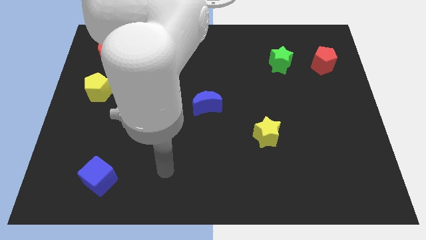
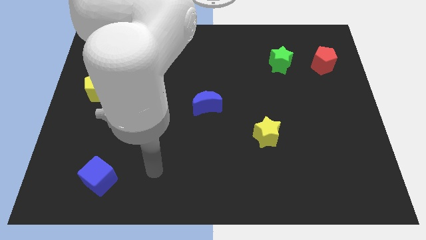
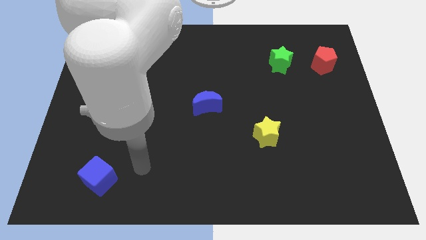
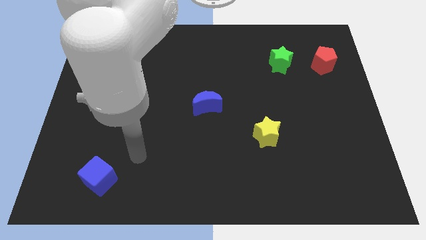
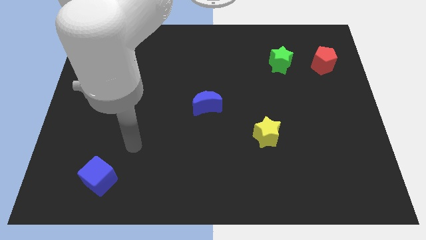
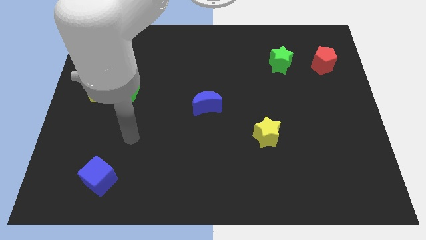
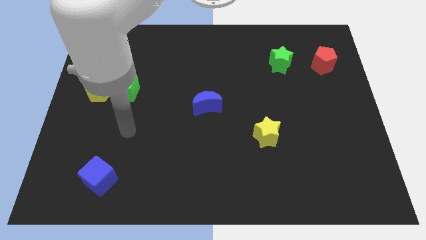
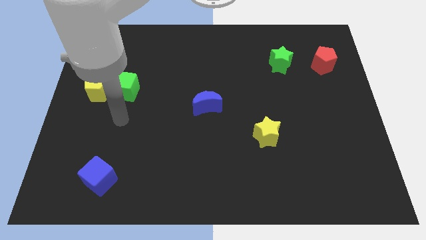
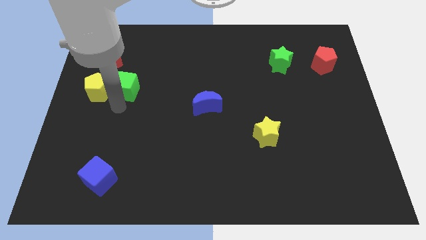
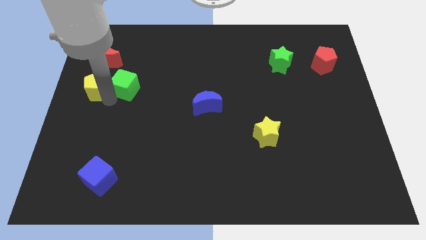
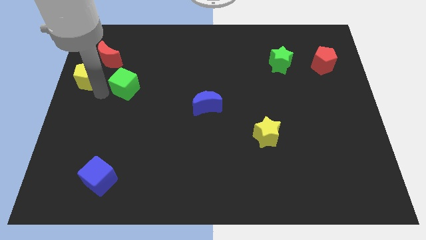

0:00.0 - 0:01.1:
pull the green cube apart from the yellow pentagon

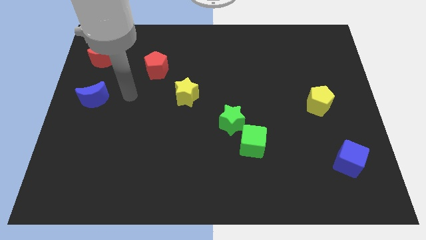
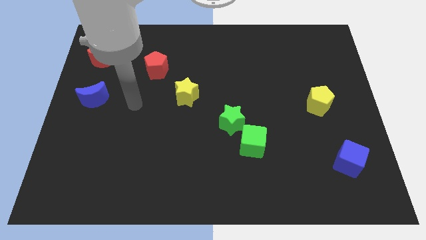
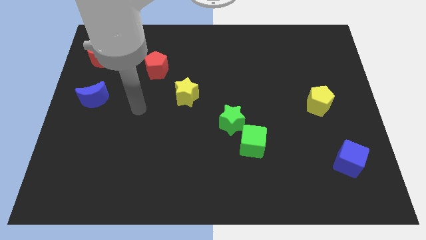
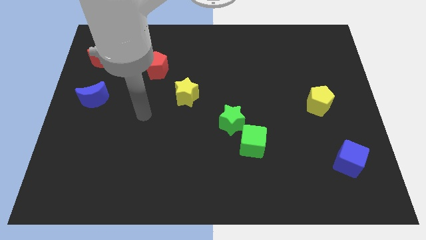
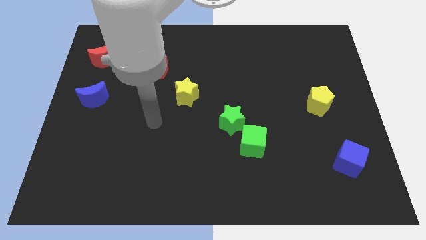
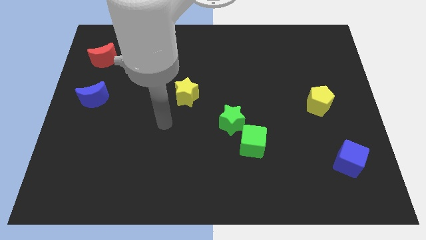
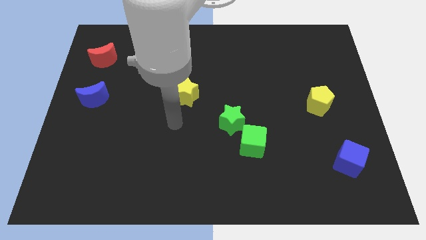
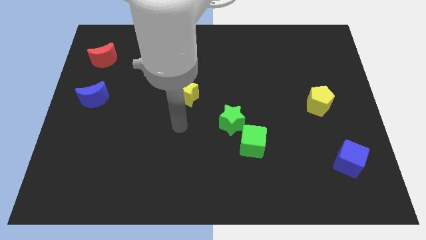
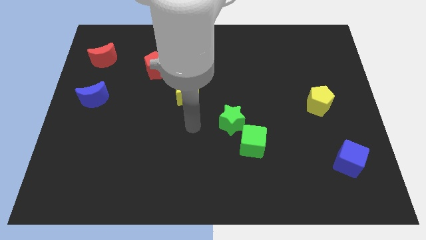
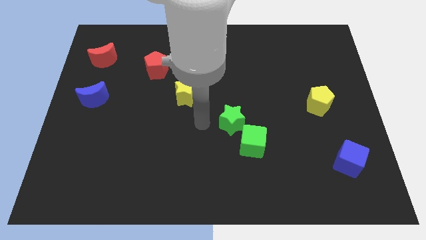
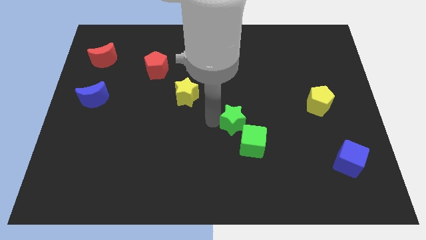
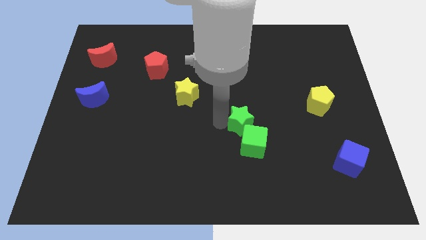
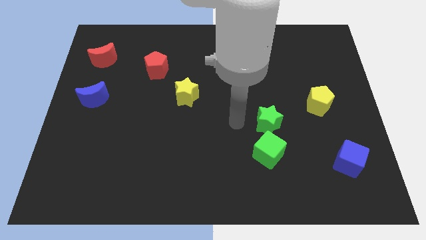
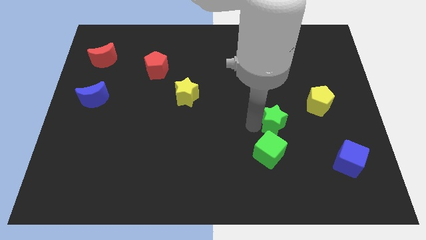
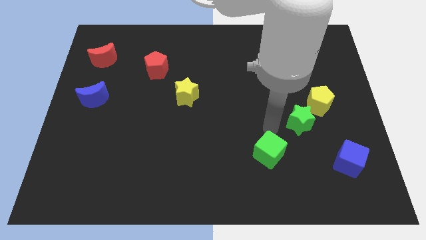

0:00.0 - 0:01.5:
move the green cube away from the green star

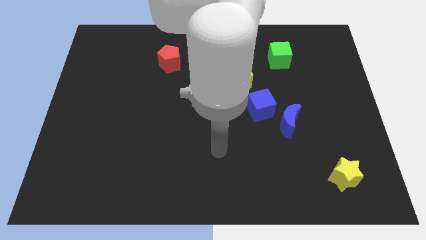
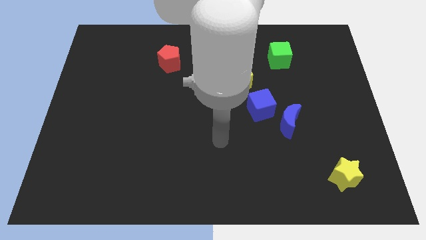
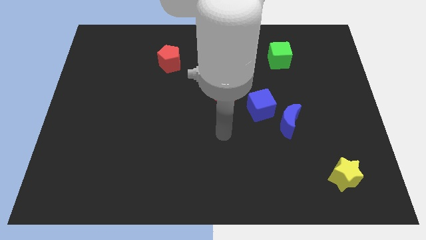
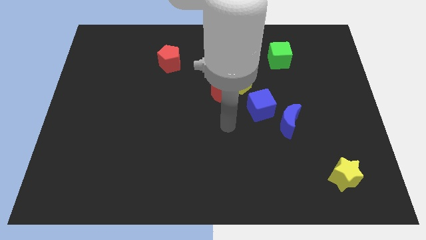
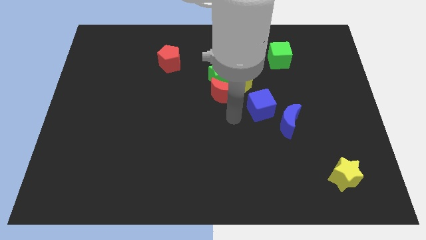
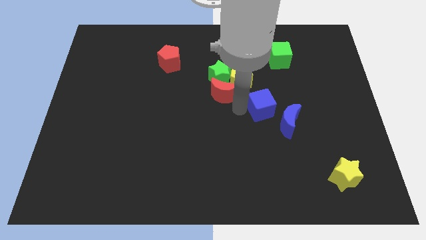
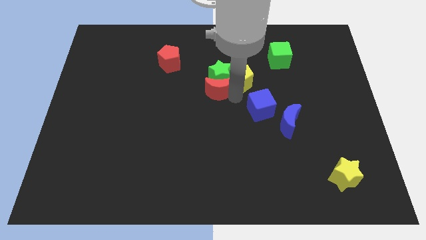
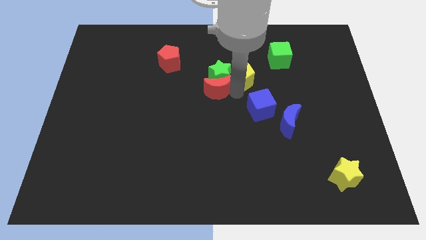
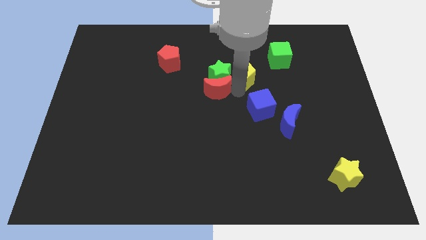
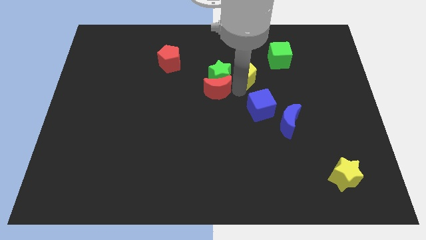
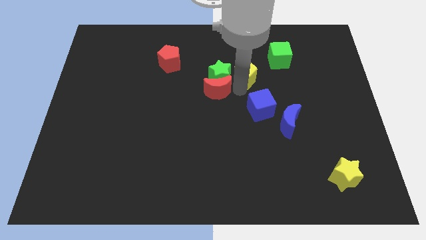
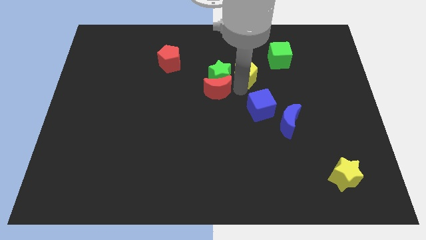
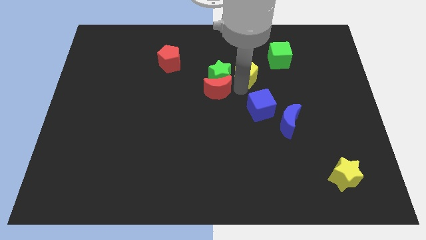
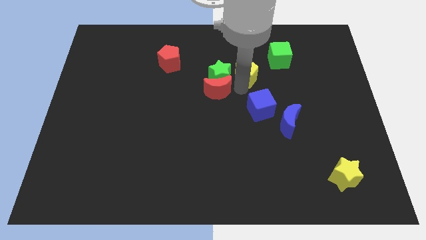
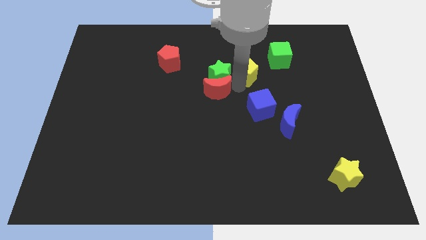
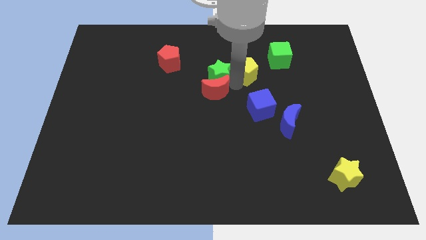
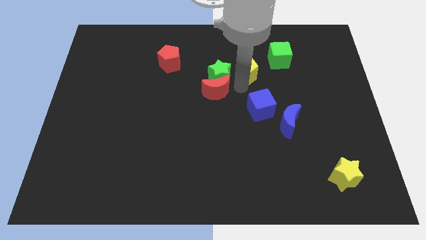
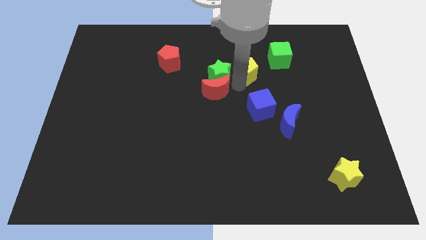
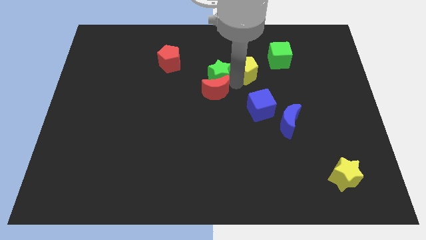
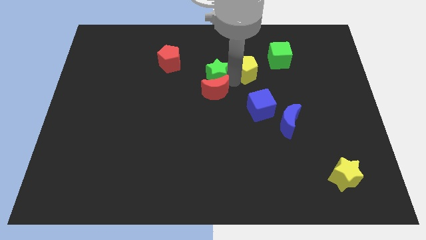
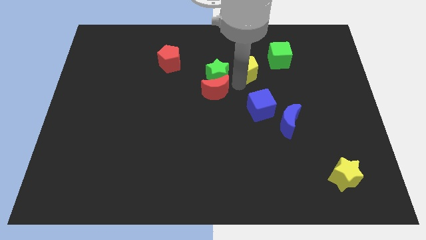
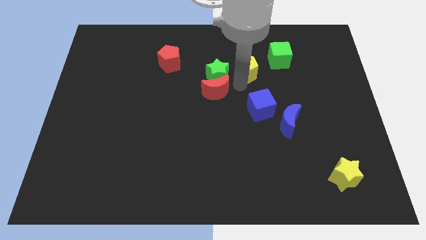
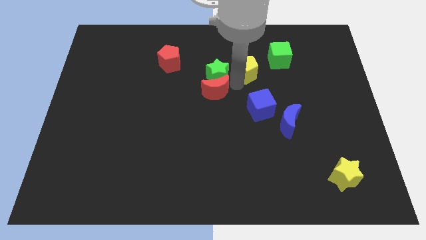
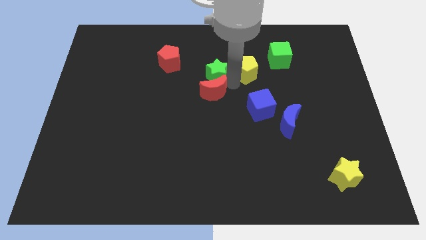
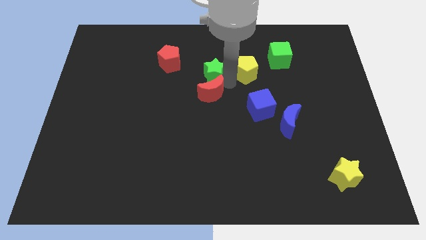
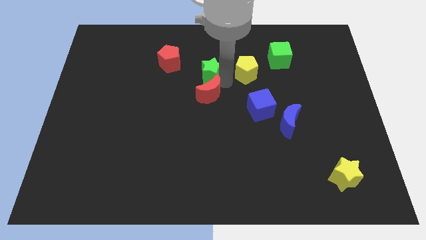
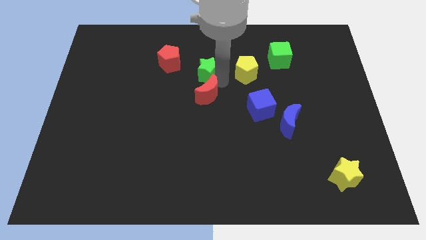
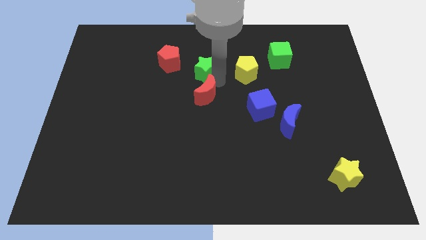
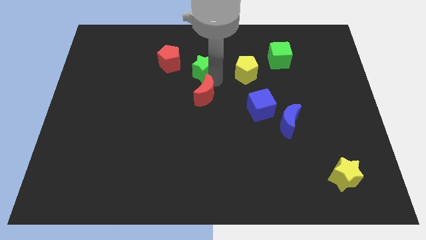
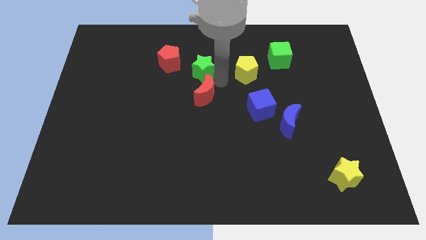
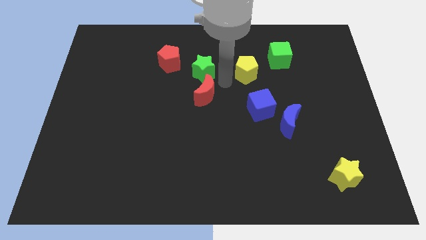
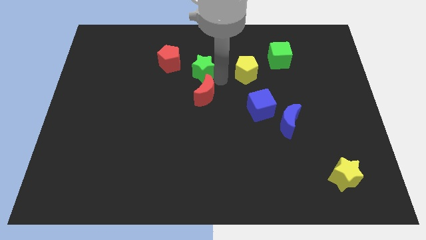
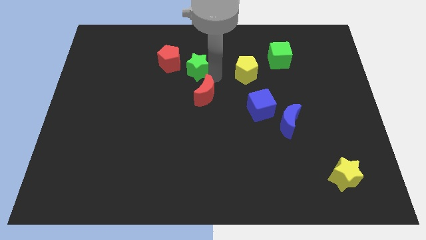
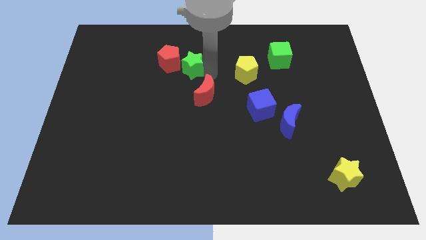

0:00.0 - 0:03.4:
move the green star away from the yellow pentagon and red moon

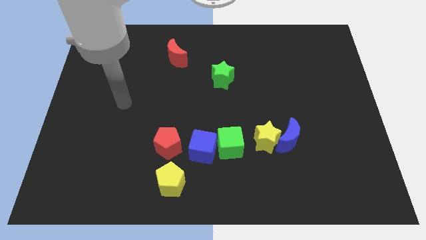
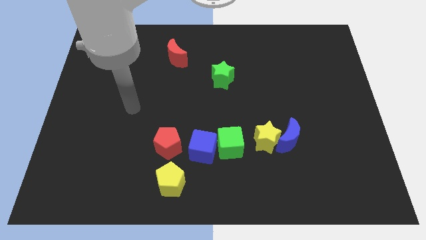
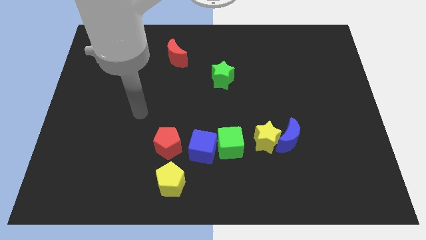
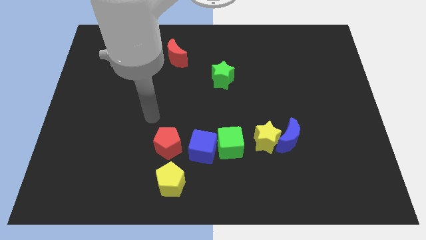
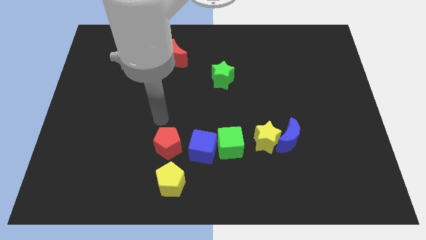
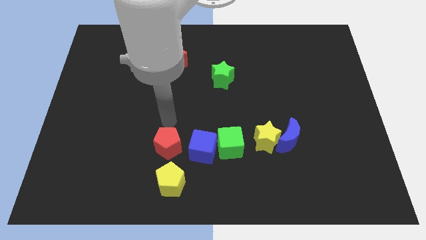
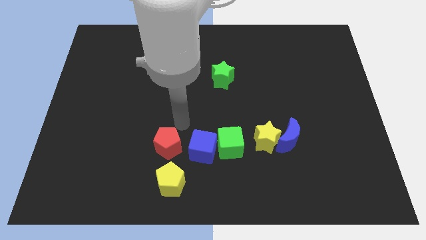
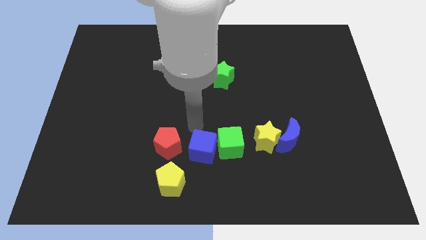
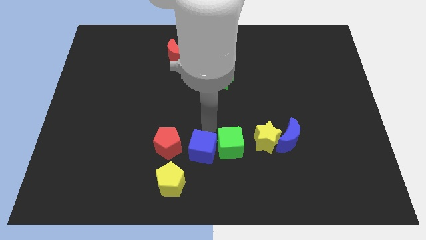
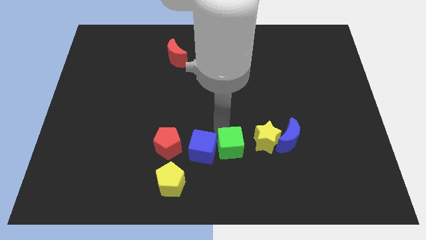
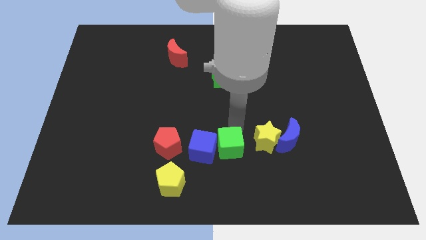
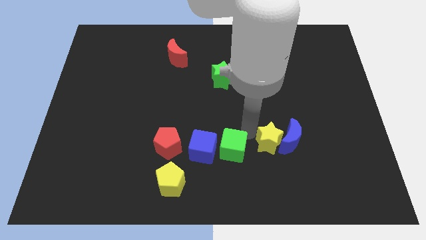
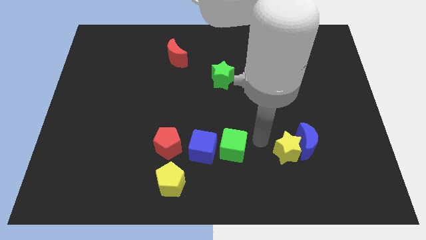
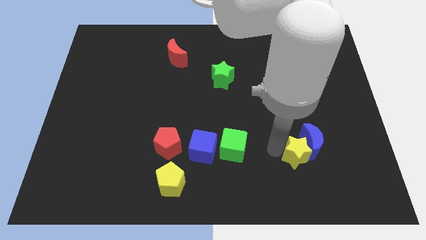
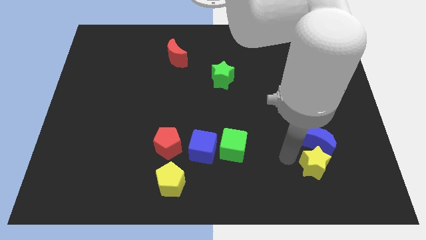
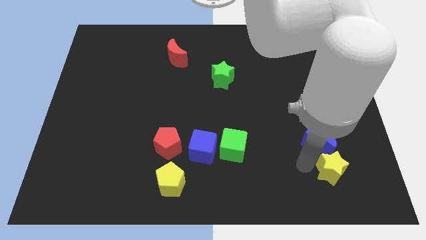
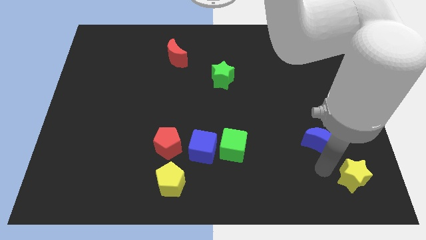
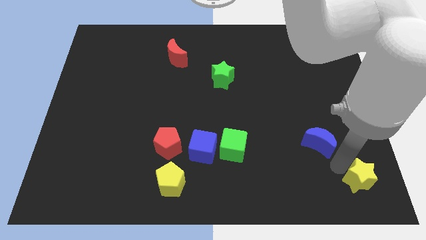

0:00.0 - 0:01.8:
move the blue moon away from the yellow star

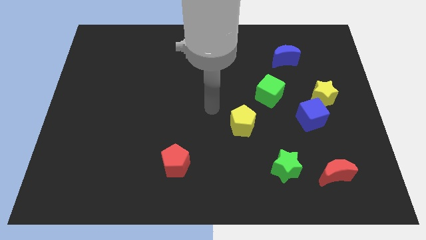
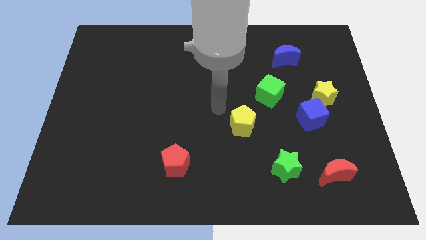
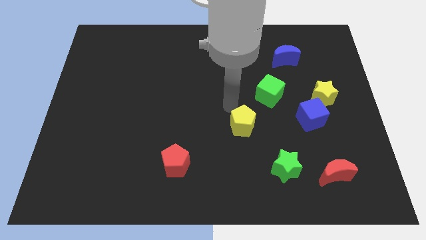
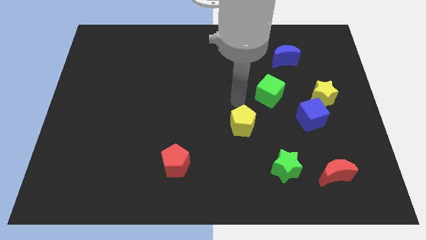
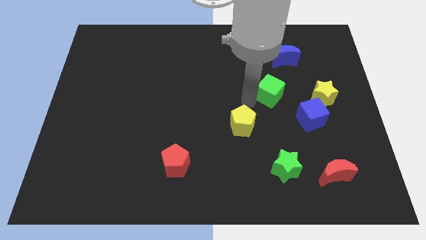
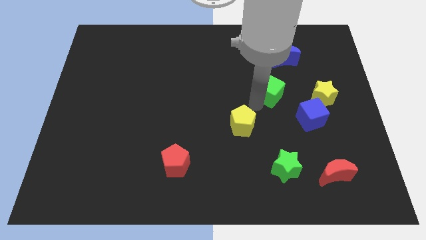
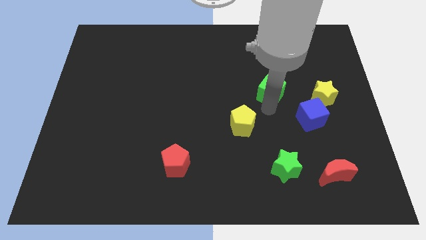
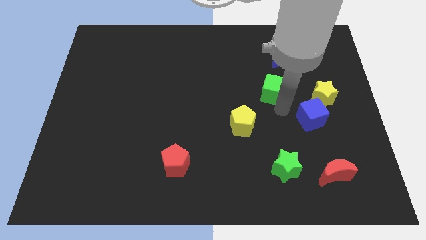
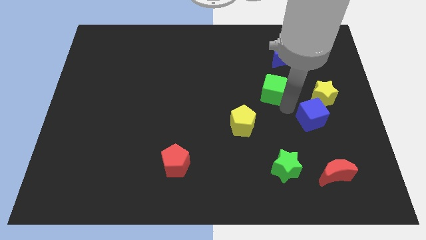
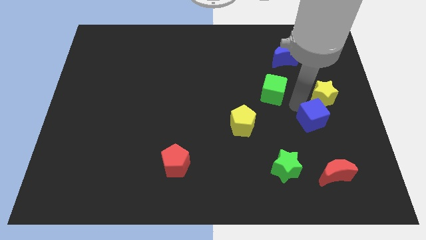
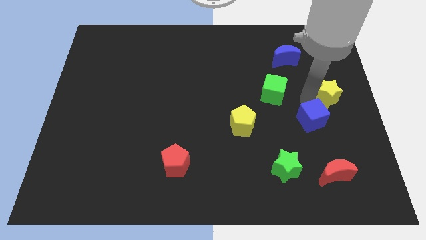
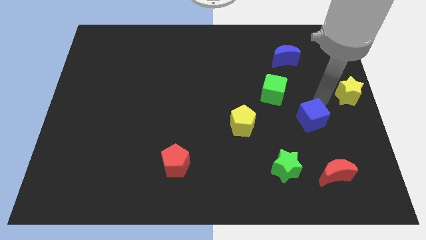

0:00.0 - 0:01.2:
separate the blue cube from the yellow star

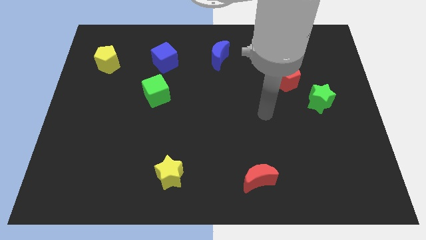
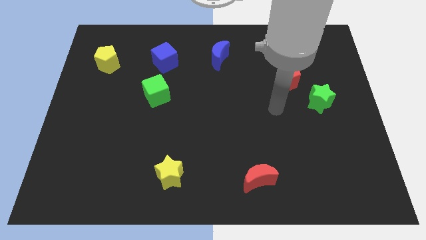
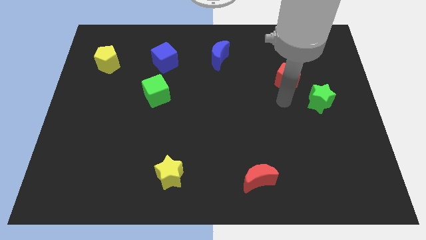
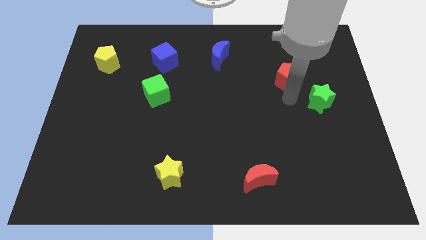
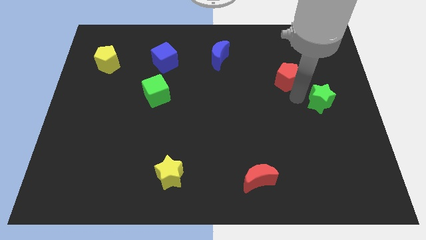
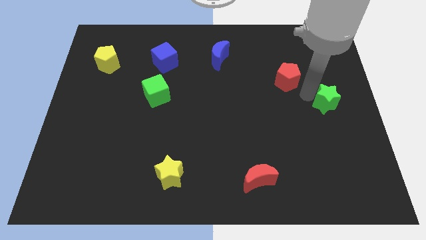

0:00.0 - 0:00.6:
move the red pentagon away from the green star
